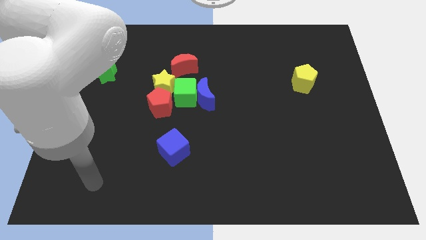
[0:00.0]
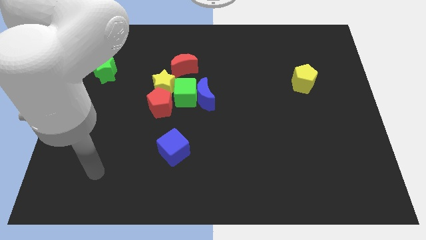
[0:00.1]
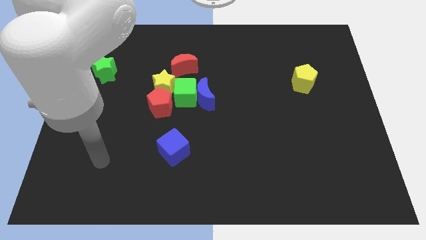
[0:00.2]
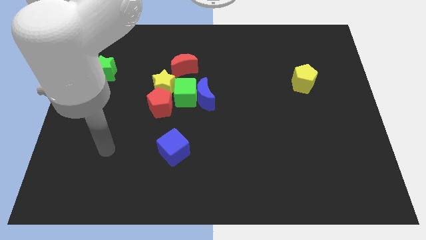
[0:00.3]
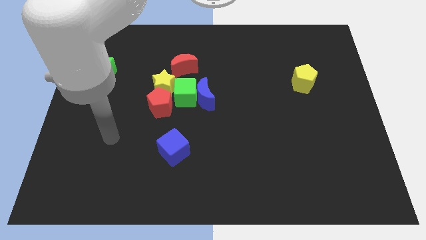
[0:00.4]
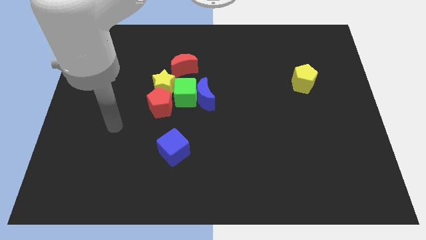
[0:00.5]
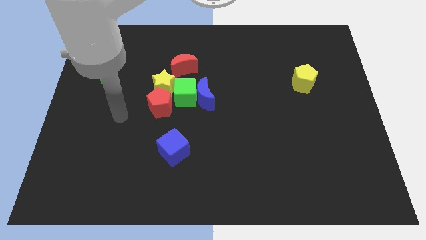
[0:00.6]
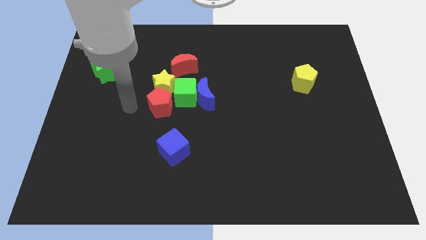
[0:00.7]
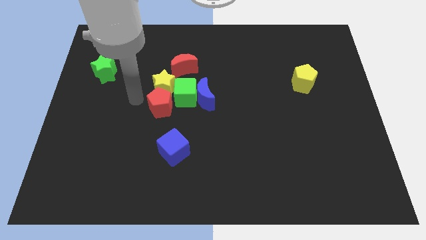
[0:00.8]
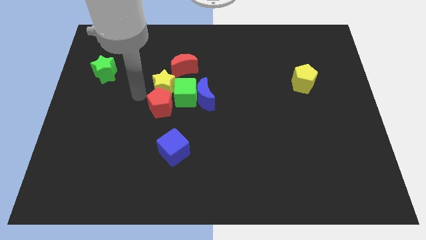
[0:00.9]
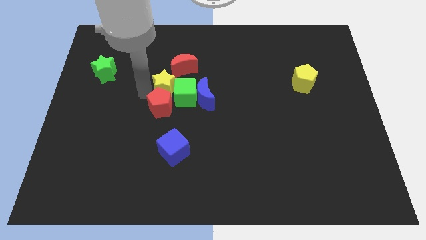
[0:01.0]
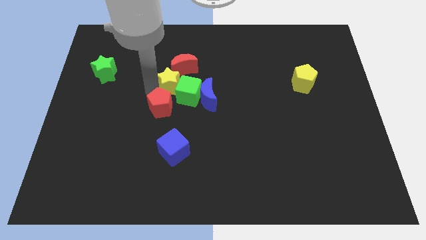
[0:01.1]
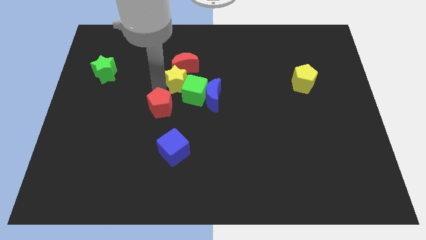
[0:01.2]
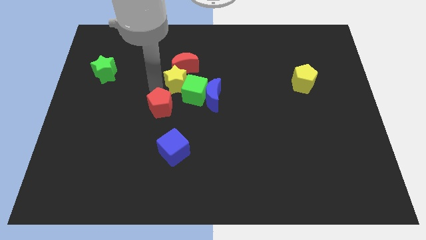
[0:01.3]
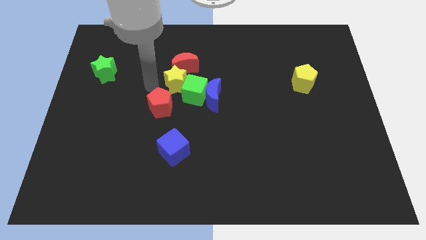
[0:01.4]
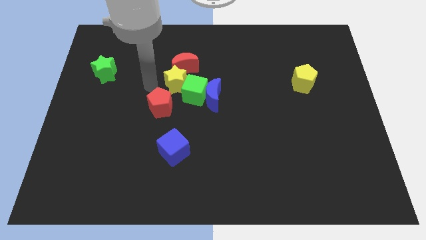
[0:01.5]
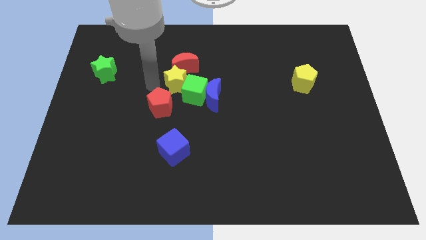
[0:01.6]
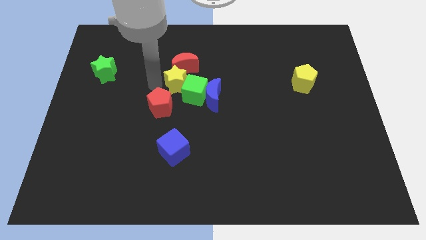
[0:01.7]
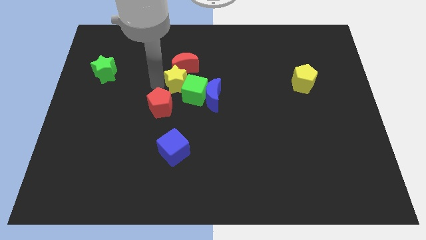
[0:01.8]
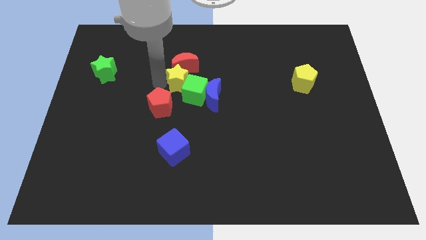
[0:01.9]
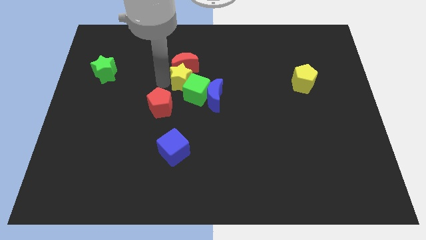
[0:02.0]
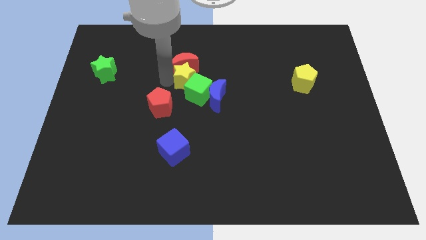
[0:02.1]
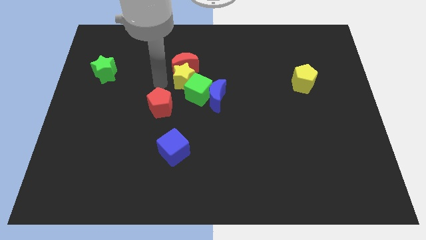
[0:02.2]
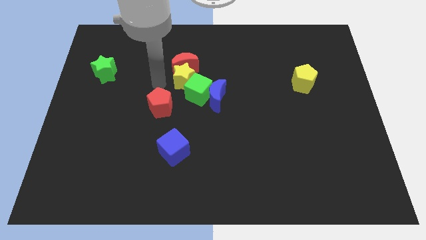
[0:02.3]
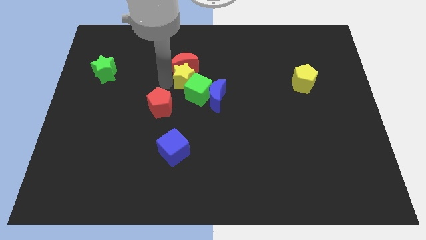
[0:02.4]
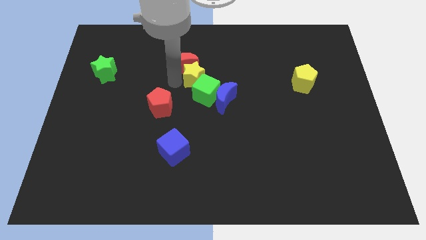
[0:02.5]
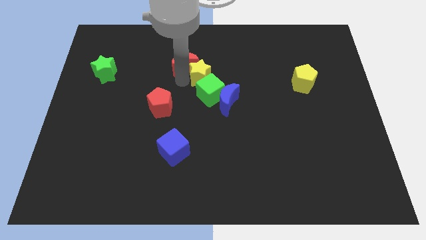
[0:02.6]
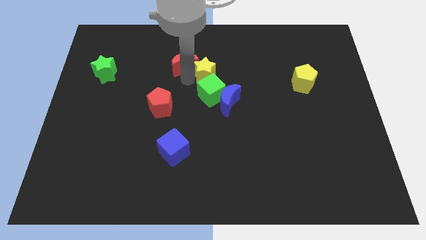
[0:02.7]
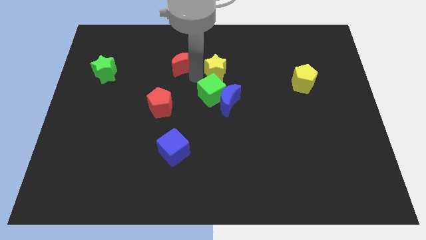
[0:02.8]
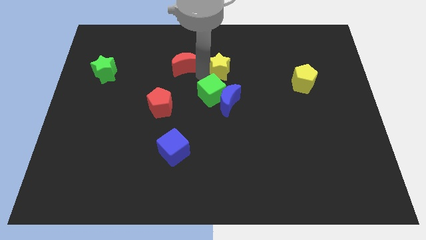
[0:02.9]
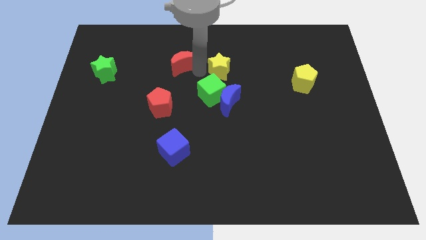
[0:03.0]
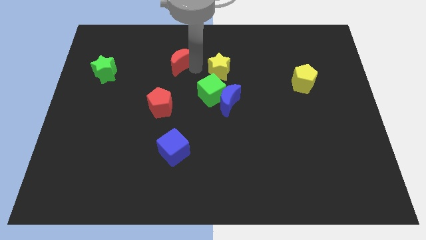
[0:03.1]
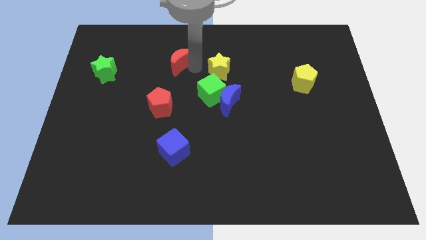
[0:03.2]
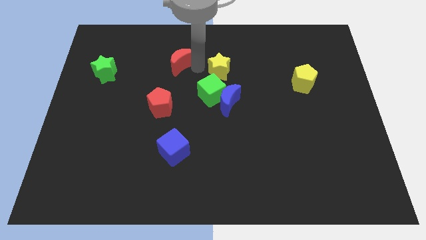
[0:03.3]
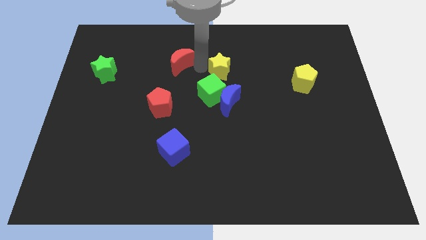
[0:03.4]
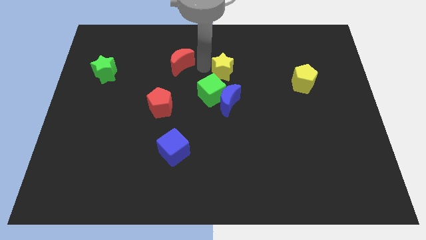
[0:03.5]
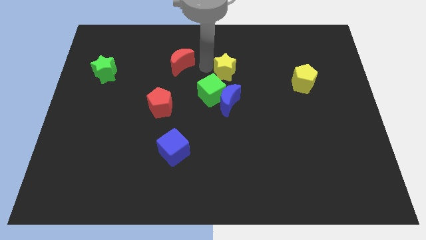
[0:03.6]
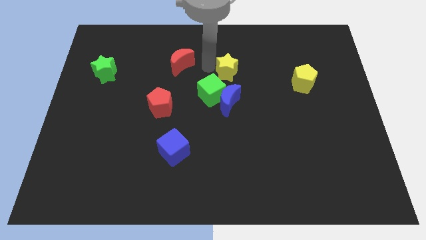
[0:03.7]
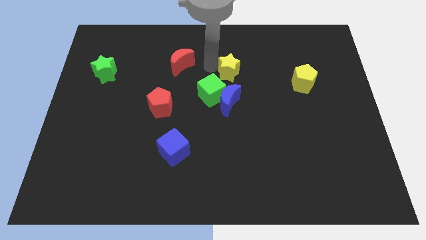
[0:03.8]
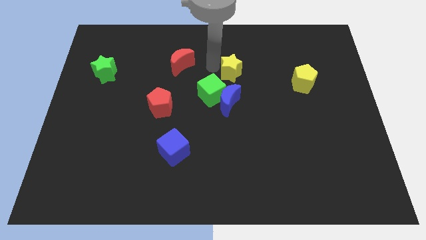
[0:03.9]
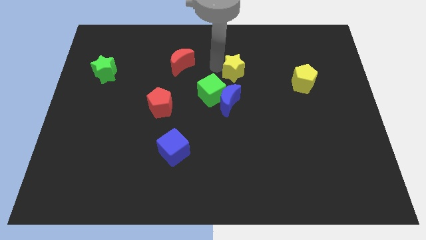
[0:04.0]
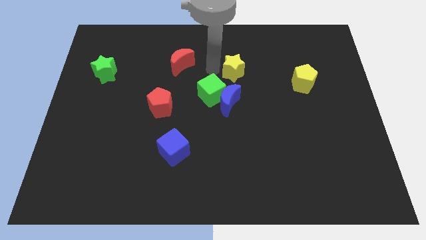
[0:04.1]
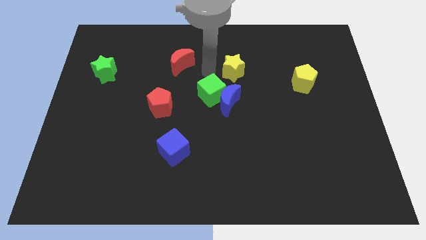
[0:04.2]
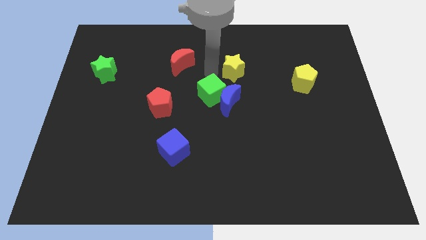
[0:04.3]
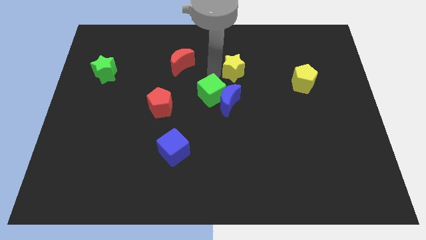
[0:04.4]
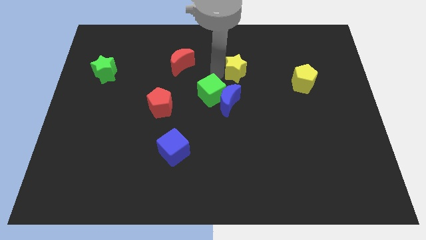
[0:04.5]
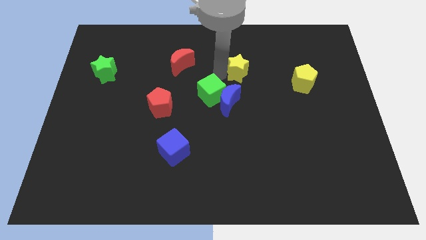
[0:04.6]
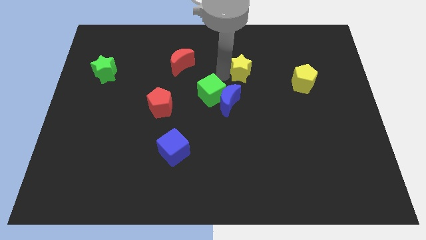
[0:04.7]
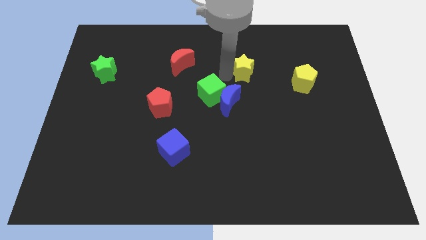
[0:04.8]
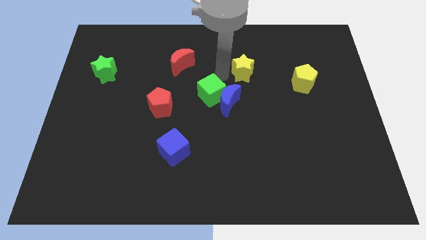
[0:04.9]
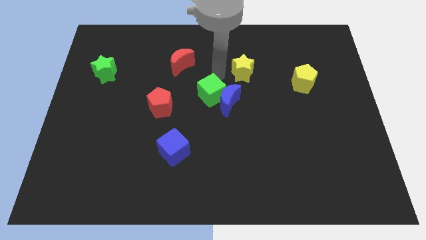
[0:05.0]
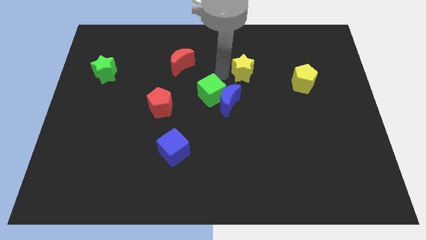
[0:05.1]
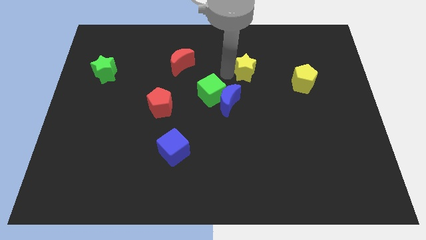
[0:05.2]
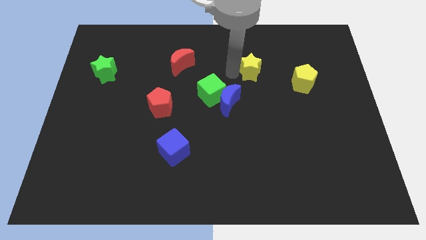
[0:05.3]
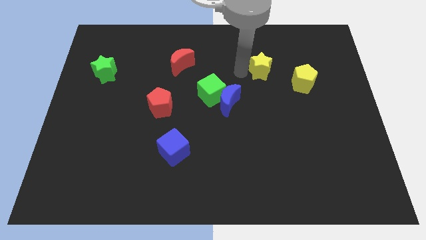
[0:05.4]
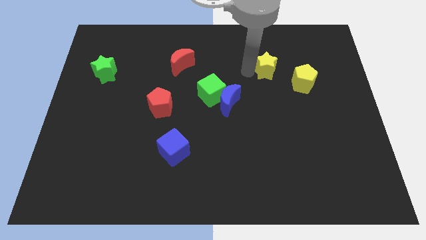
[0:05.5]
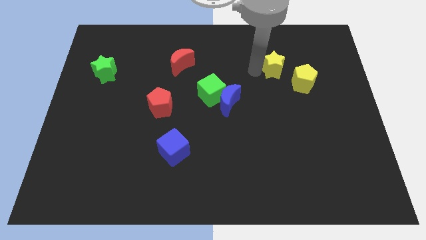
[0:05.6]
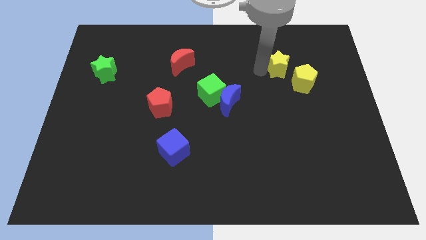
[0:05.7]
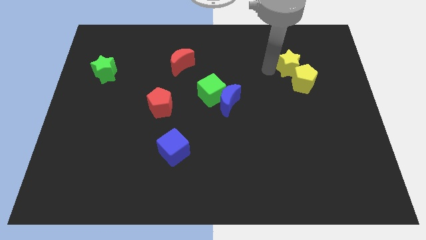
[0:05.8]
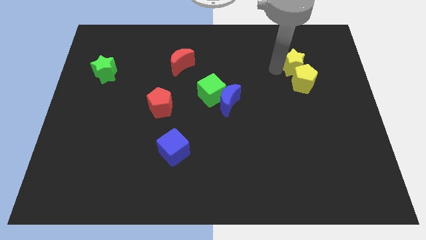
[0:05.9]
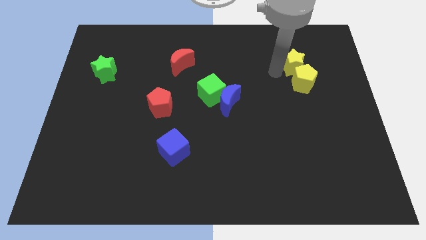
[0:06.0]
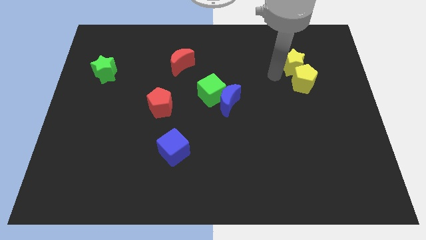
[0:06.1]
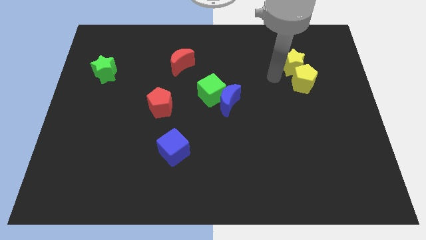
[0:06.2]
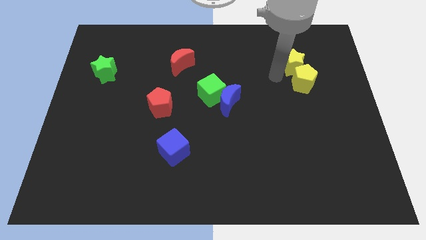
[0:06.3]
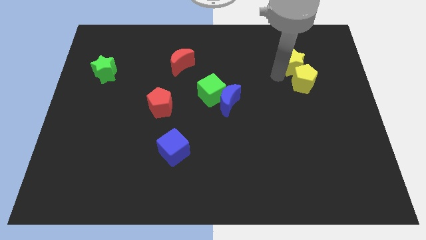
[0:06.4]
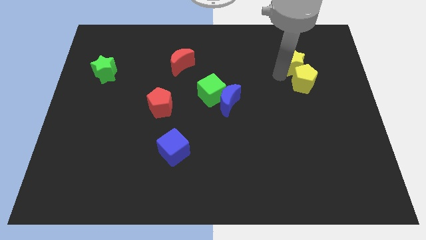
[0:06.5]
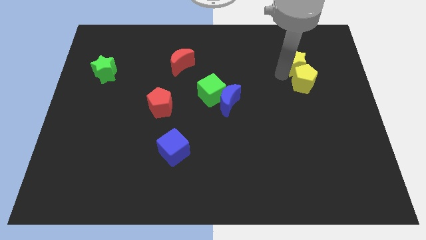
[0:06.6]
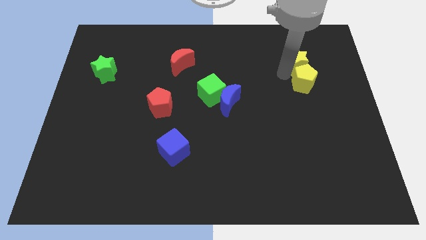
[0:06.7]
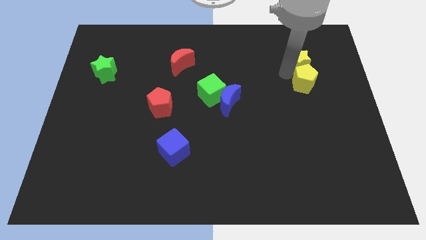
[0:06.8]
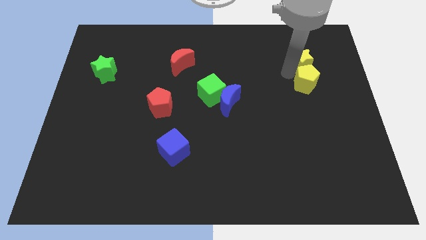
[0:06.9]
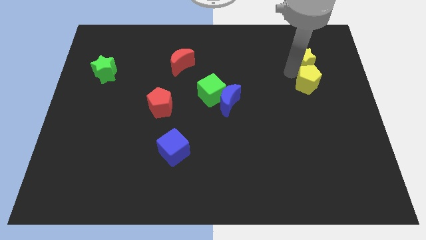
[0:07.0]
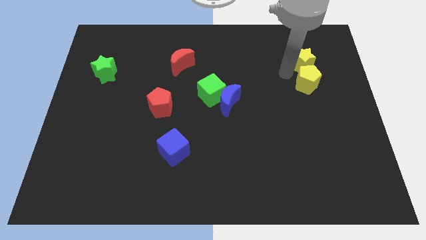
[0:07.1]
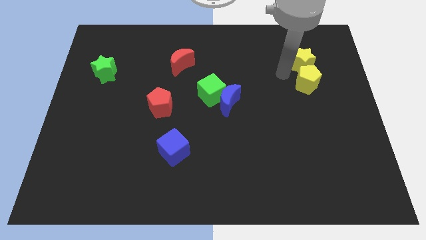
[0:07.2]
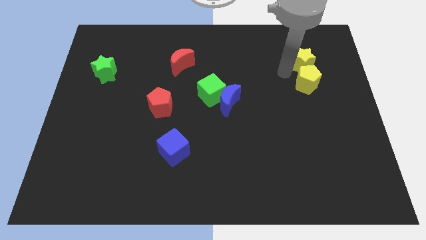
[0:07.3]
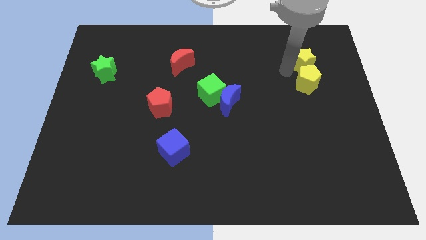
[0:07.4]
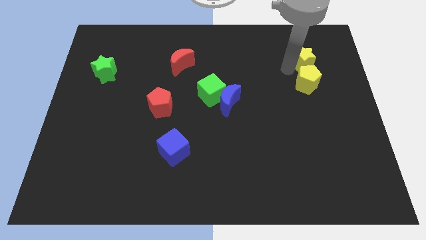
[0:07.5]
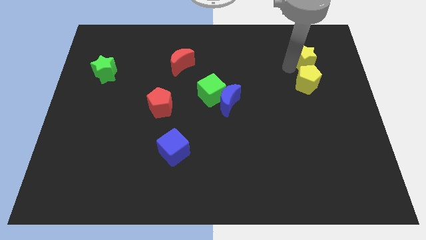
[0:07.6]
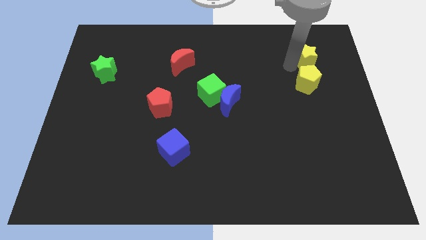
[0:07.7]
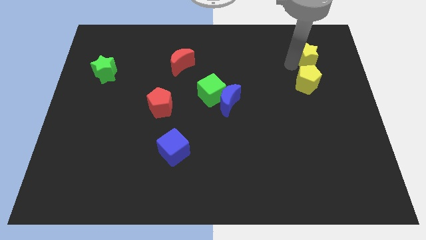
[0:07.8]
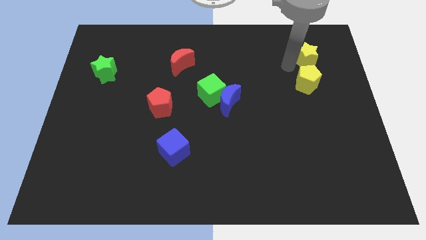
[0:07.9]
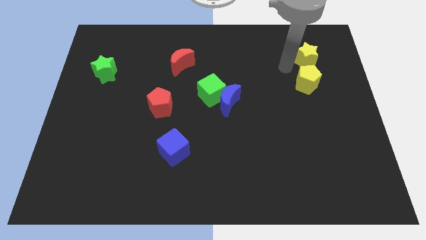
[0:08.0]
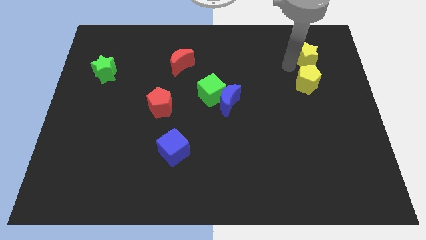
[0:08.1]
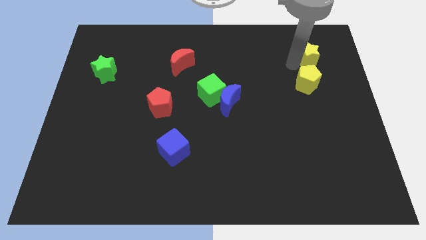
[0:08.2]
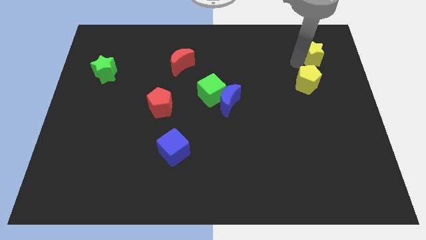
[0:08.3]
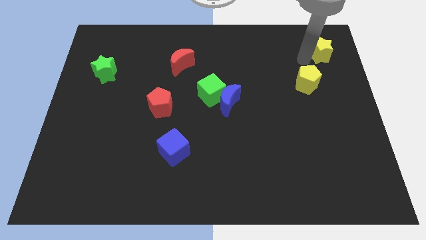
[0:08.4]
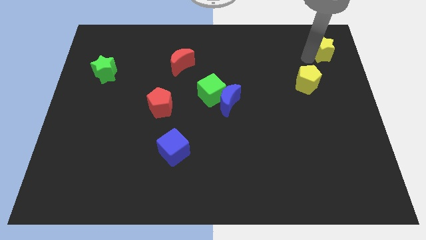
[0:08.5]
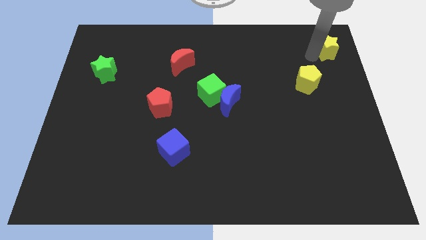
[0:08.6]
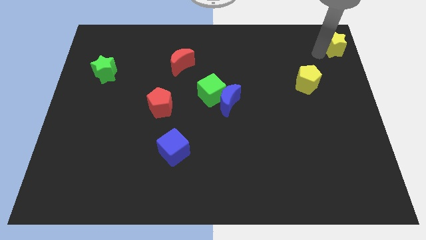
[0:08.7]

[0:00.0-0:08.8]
push the yellow star to the top right corner
